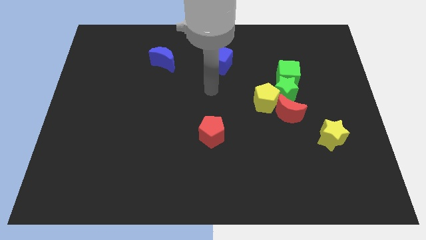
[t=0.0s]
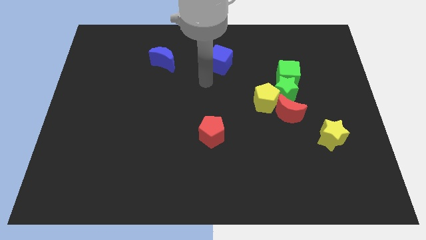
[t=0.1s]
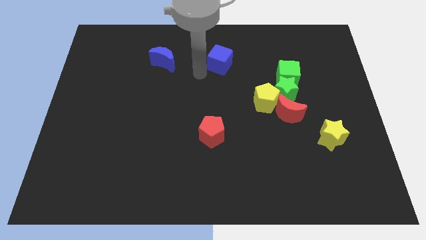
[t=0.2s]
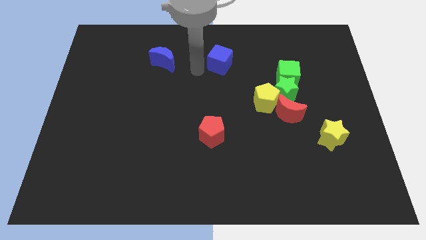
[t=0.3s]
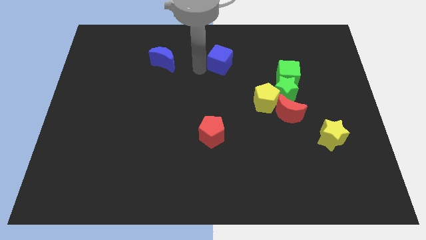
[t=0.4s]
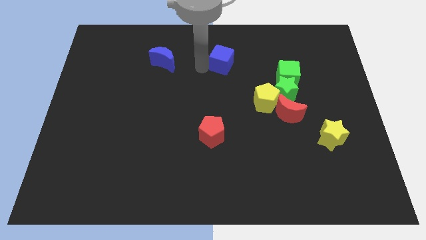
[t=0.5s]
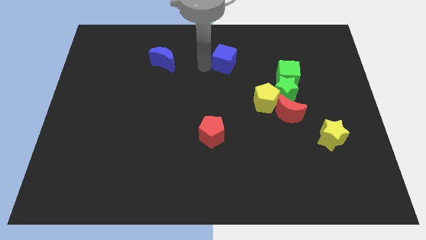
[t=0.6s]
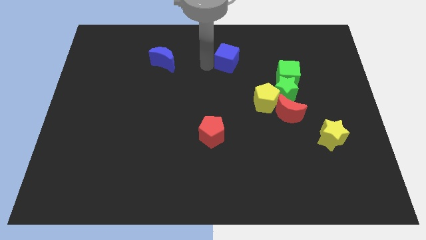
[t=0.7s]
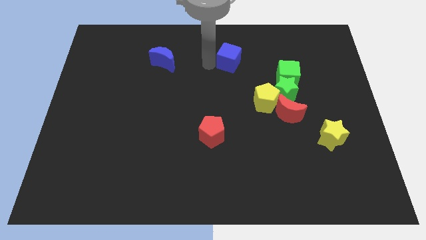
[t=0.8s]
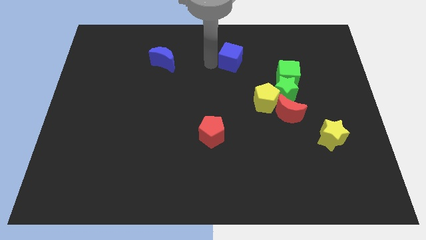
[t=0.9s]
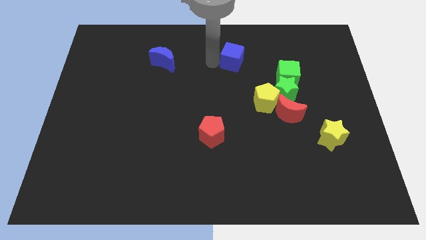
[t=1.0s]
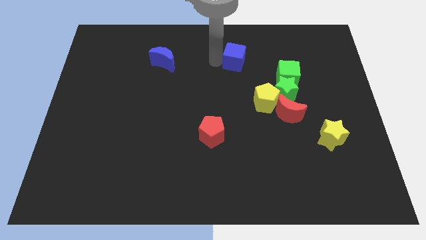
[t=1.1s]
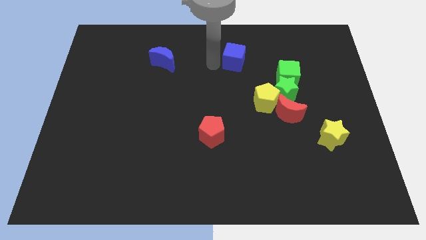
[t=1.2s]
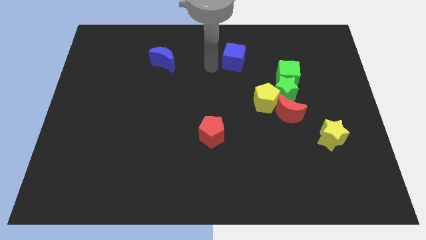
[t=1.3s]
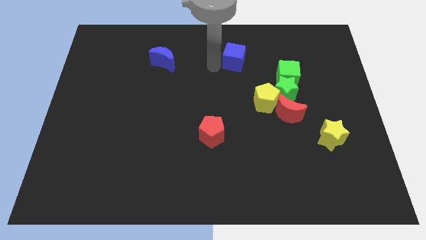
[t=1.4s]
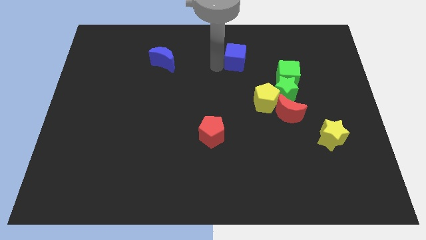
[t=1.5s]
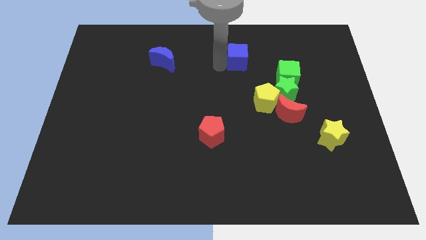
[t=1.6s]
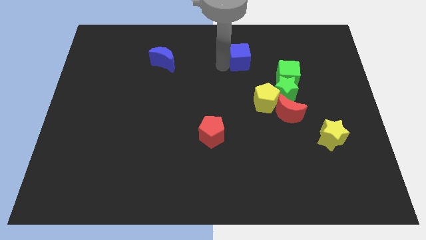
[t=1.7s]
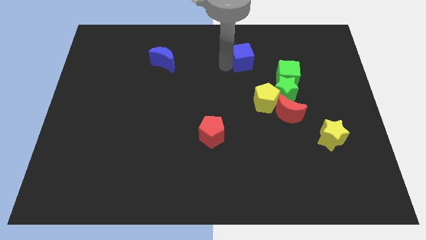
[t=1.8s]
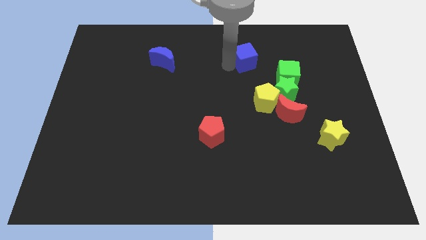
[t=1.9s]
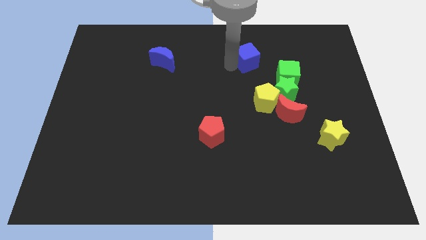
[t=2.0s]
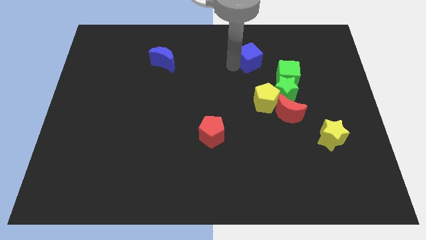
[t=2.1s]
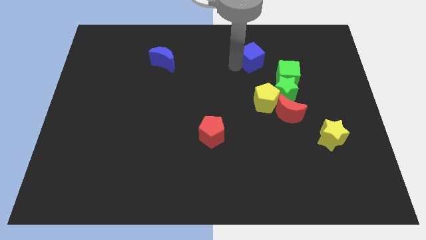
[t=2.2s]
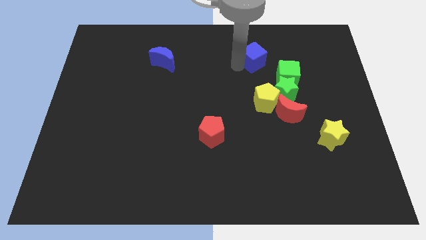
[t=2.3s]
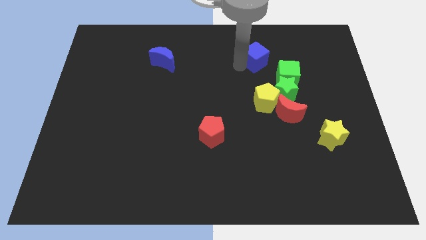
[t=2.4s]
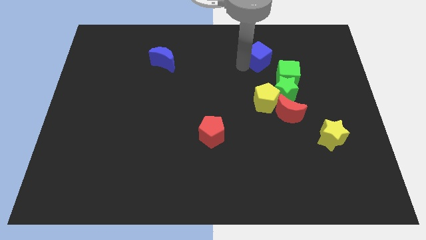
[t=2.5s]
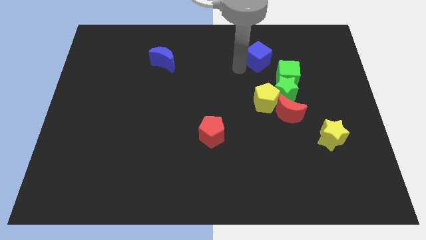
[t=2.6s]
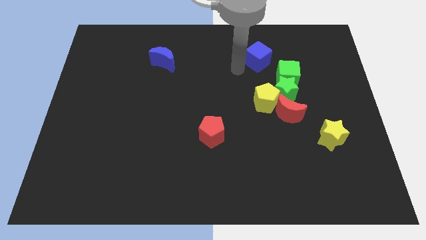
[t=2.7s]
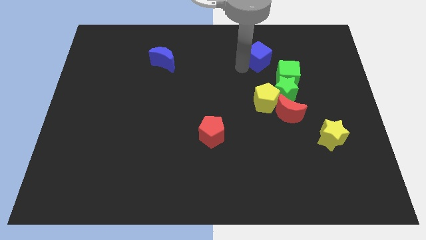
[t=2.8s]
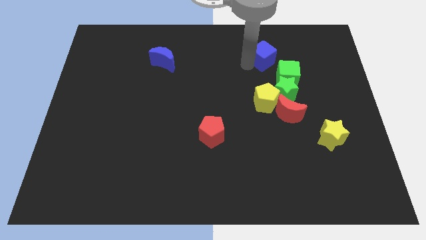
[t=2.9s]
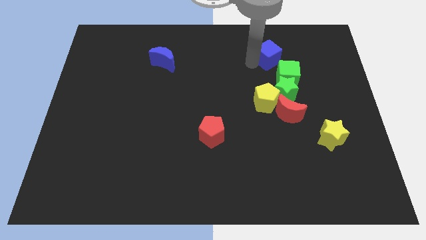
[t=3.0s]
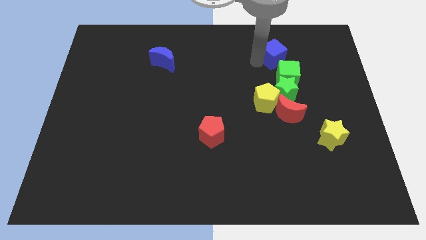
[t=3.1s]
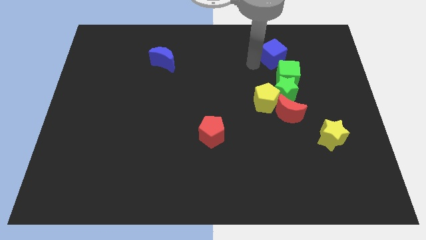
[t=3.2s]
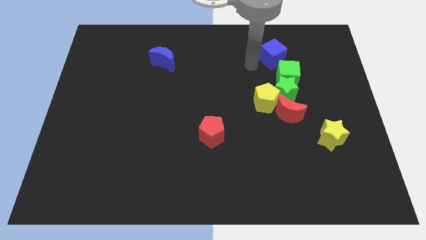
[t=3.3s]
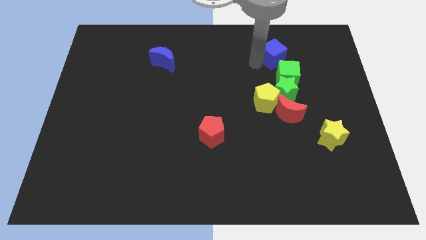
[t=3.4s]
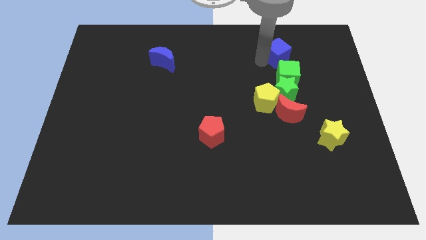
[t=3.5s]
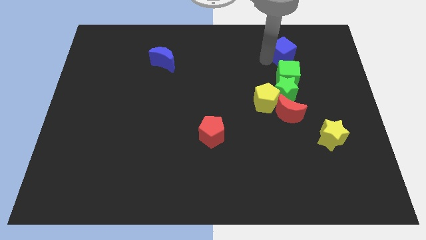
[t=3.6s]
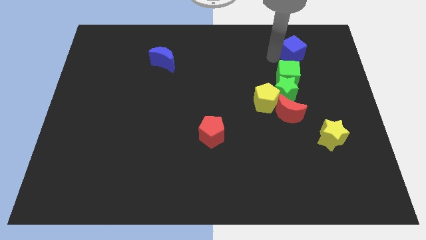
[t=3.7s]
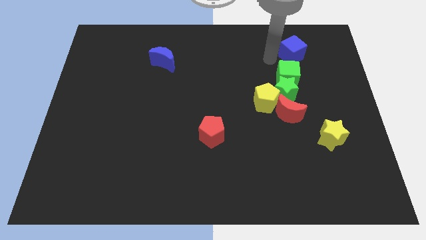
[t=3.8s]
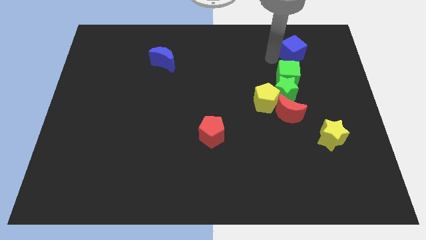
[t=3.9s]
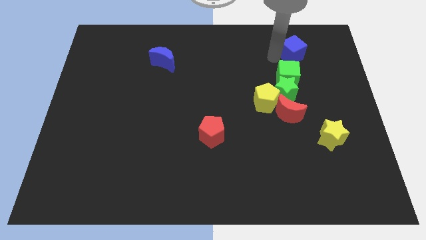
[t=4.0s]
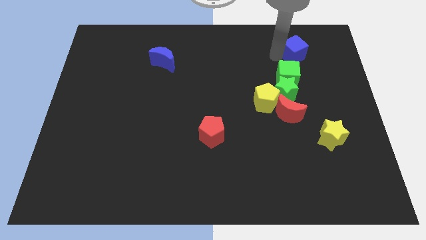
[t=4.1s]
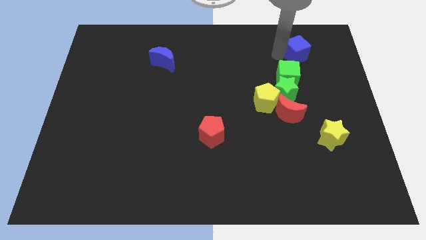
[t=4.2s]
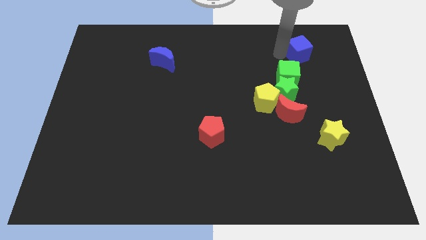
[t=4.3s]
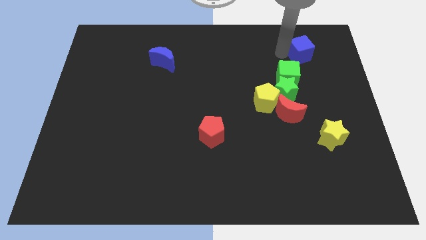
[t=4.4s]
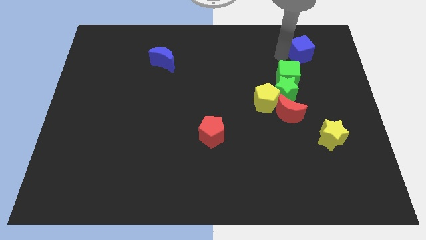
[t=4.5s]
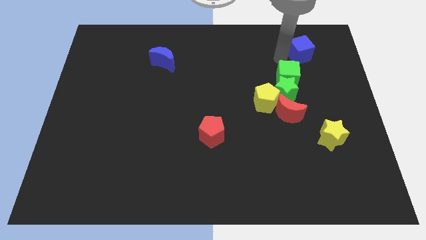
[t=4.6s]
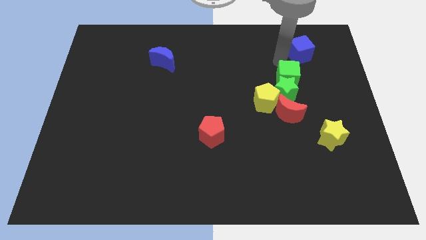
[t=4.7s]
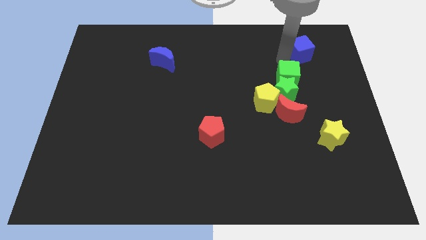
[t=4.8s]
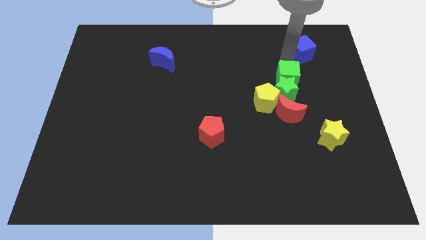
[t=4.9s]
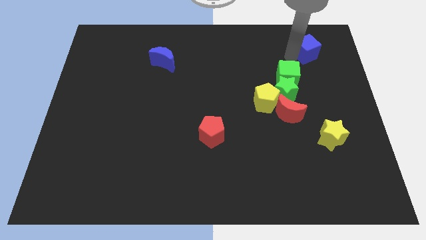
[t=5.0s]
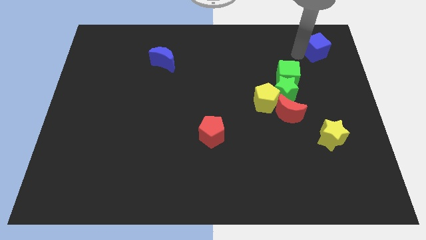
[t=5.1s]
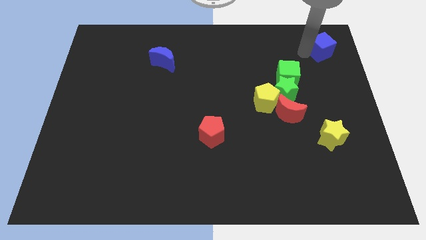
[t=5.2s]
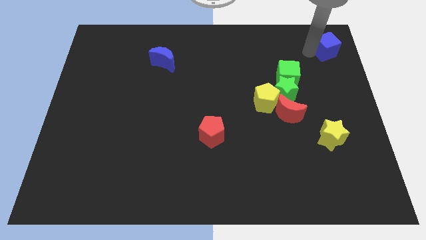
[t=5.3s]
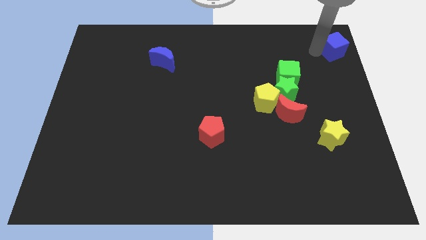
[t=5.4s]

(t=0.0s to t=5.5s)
slide the blue cube to the top right of the board

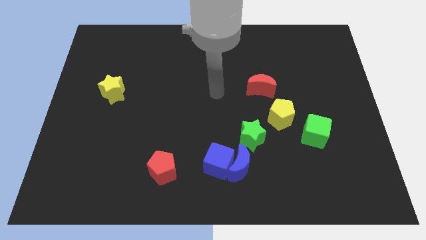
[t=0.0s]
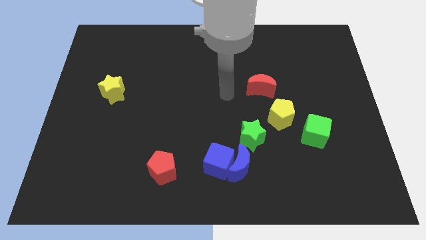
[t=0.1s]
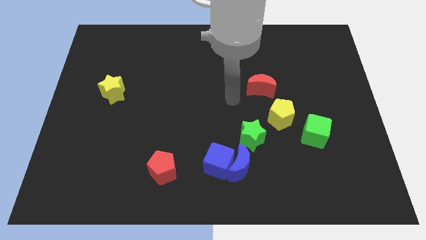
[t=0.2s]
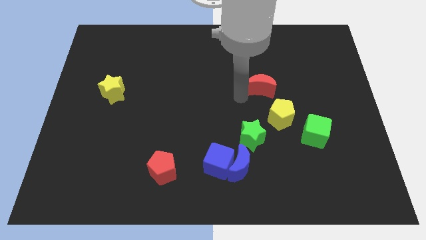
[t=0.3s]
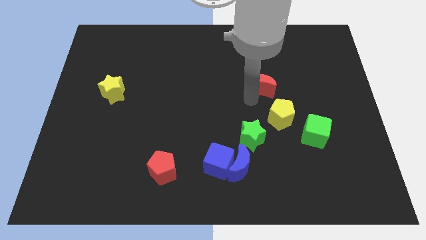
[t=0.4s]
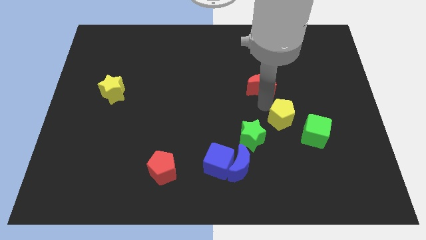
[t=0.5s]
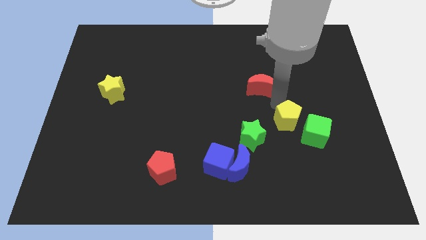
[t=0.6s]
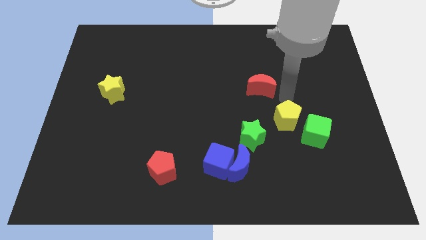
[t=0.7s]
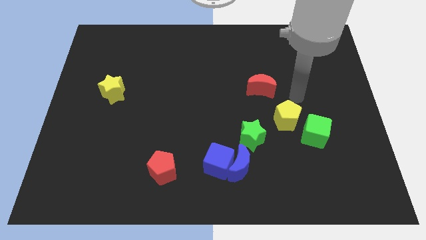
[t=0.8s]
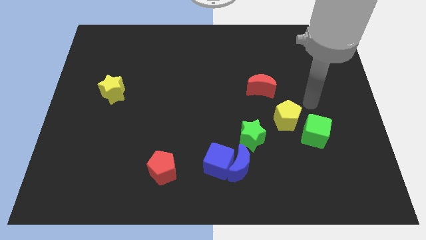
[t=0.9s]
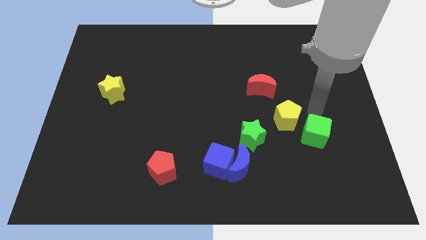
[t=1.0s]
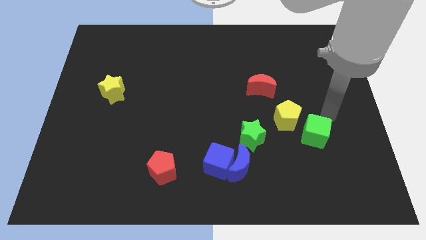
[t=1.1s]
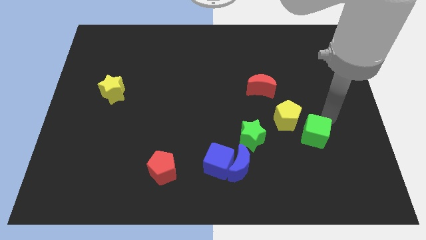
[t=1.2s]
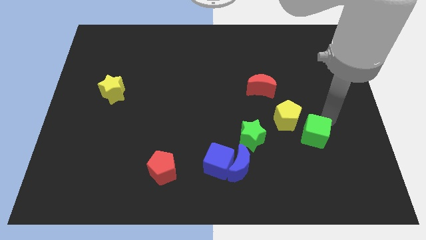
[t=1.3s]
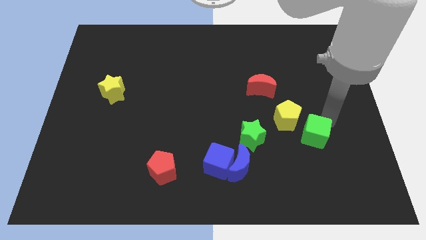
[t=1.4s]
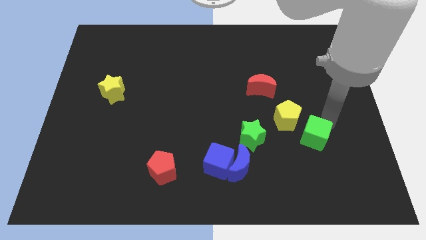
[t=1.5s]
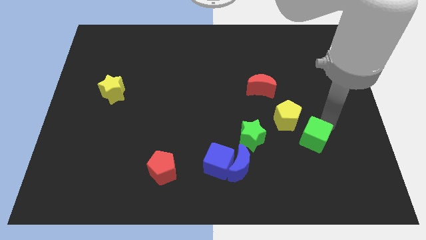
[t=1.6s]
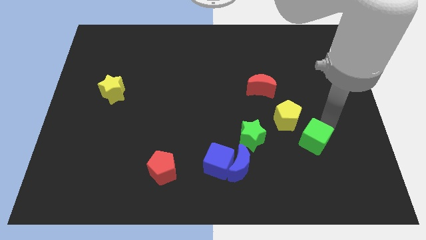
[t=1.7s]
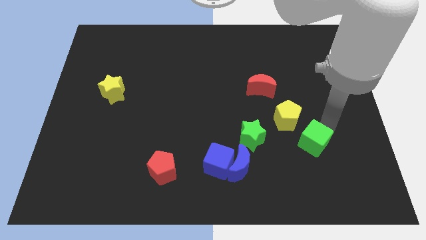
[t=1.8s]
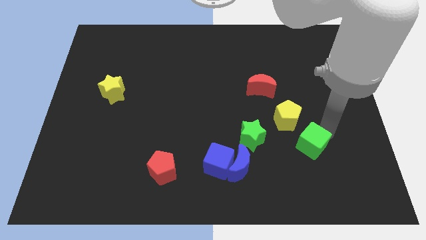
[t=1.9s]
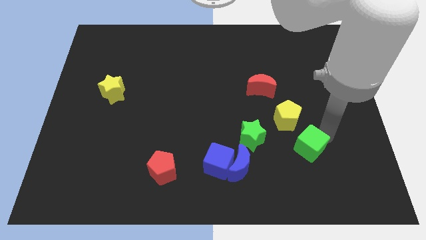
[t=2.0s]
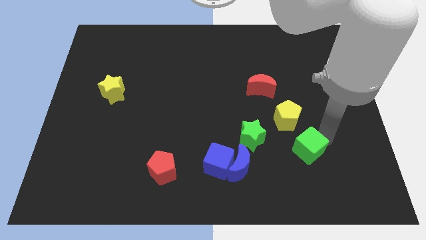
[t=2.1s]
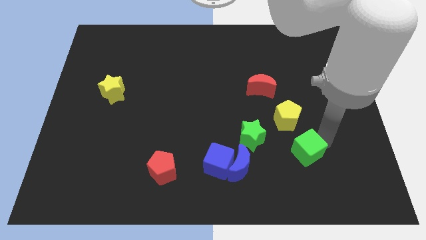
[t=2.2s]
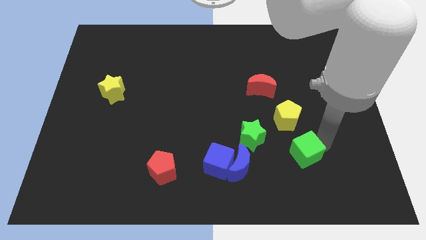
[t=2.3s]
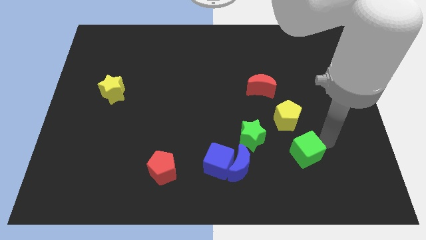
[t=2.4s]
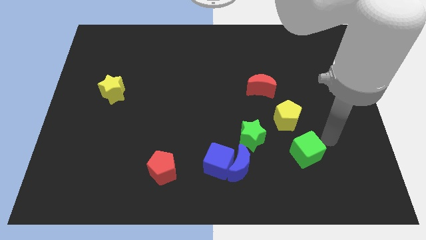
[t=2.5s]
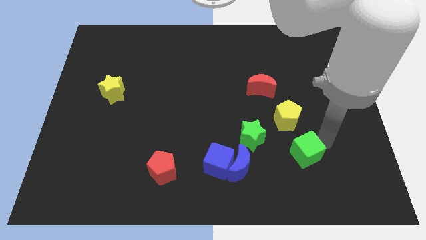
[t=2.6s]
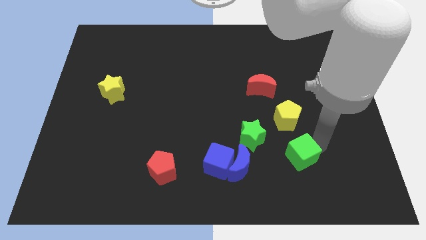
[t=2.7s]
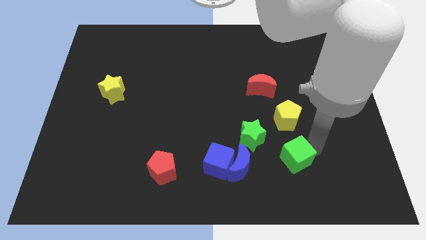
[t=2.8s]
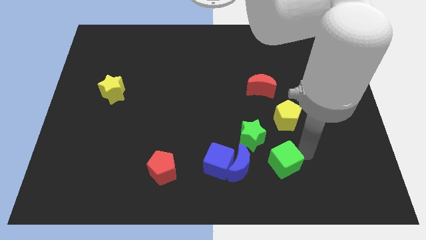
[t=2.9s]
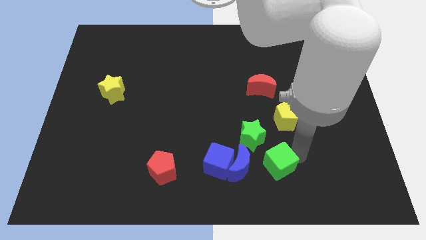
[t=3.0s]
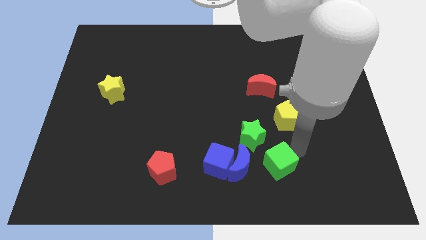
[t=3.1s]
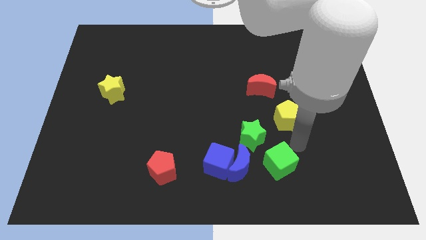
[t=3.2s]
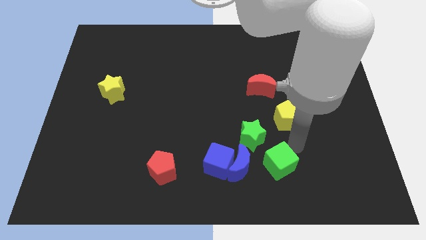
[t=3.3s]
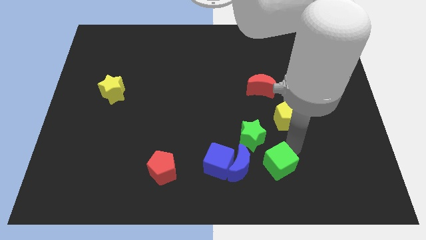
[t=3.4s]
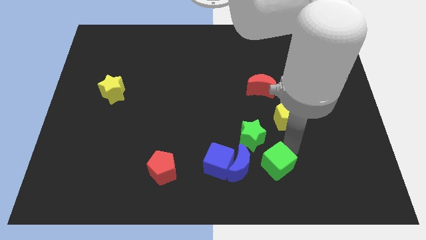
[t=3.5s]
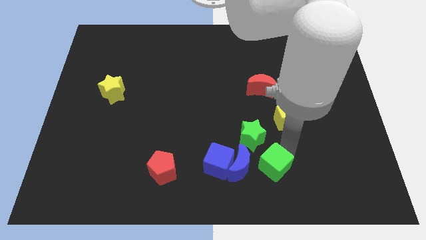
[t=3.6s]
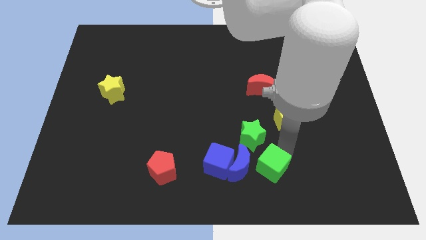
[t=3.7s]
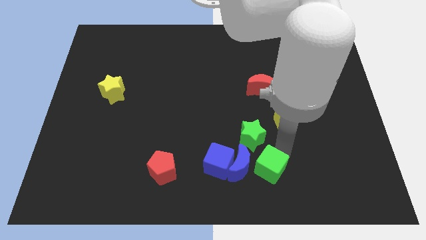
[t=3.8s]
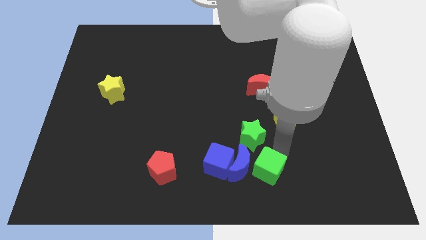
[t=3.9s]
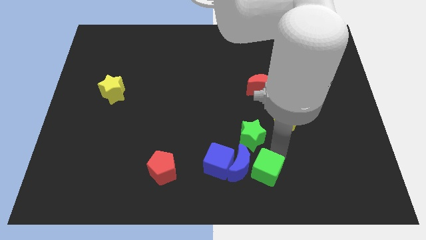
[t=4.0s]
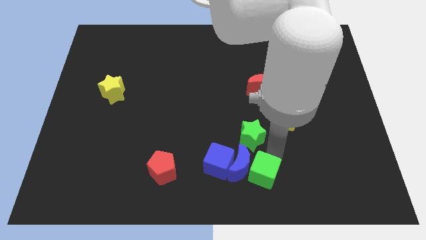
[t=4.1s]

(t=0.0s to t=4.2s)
push the green cube to the bottom
